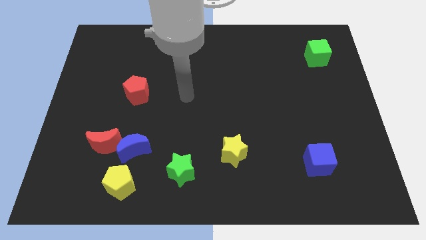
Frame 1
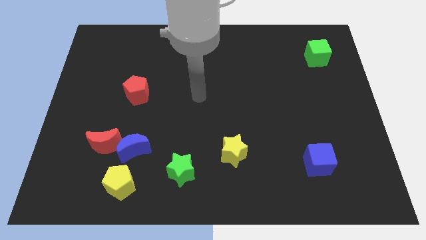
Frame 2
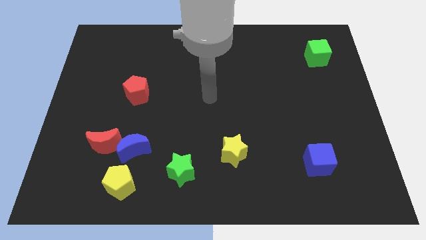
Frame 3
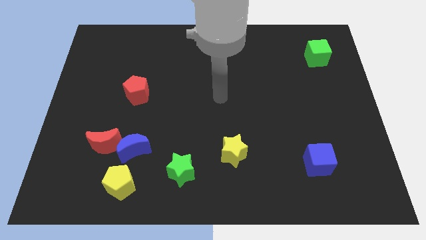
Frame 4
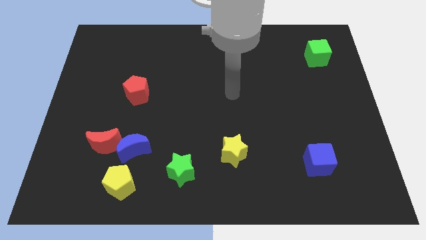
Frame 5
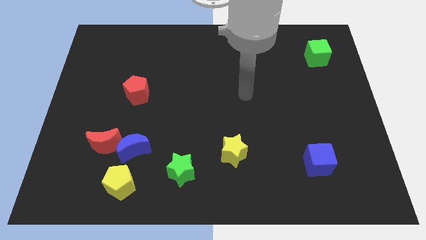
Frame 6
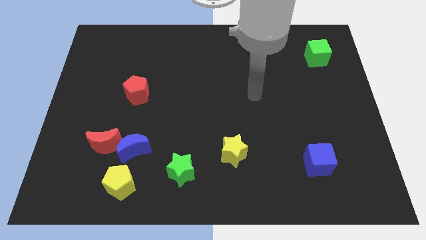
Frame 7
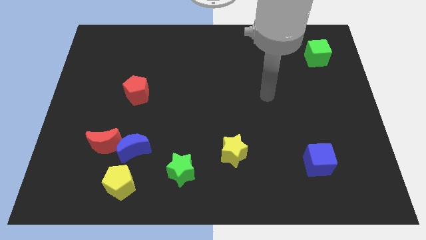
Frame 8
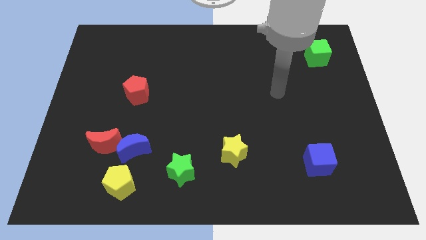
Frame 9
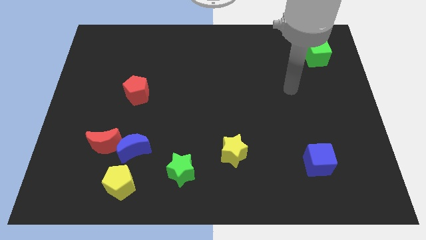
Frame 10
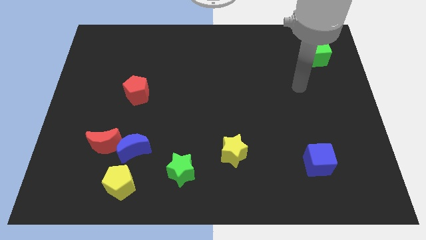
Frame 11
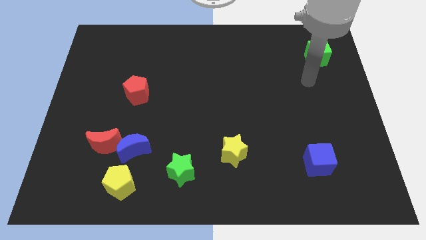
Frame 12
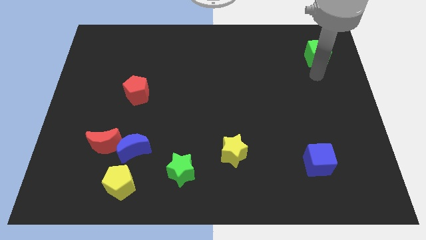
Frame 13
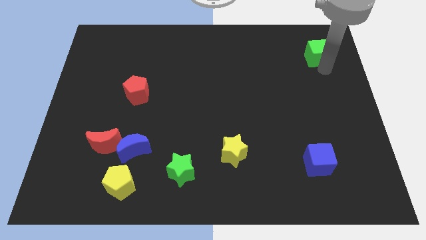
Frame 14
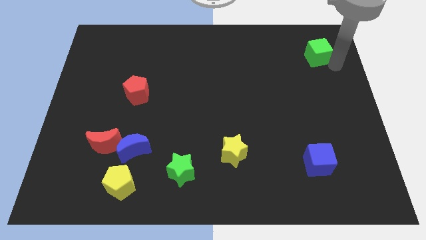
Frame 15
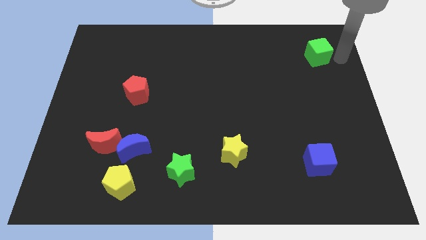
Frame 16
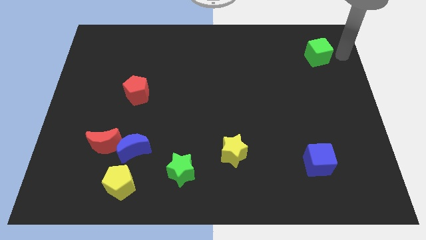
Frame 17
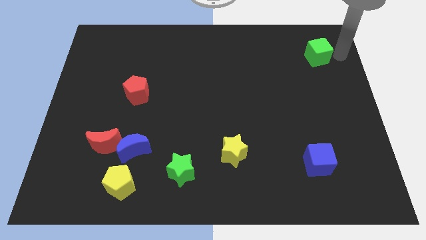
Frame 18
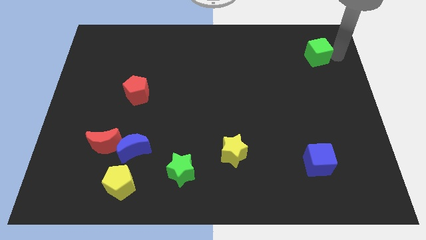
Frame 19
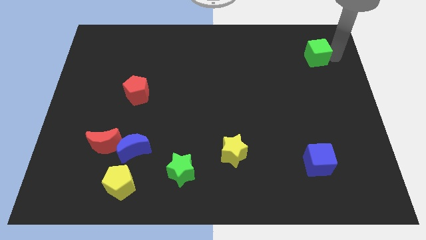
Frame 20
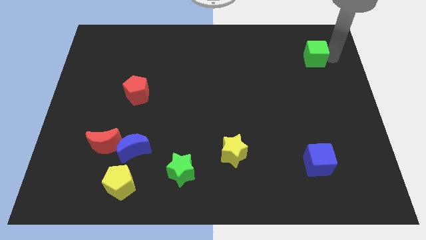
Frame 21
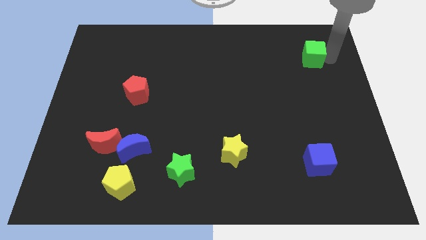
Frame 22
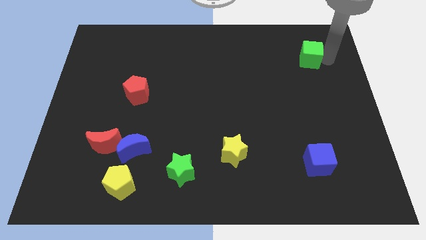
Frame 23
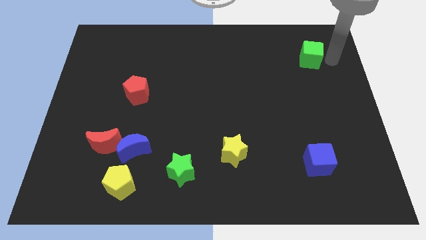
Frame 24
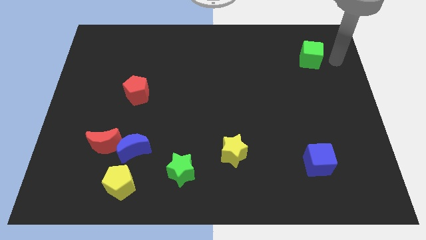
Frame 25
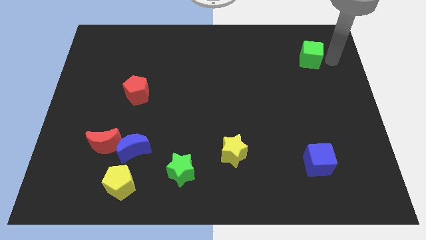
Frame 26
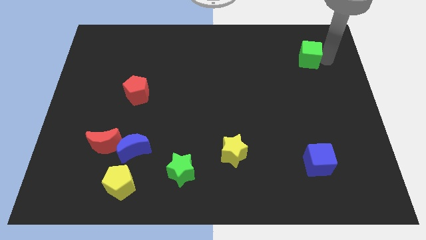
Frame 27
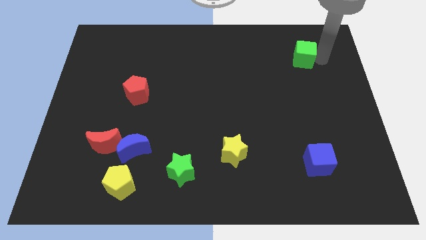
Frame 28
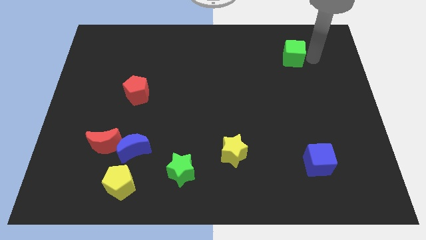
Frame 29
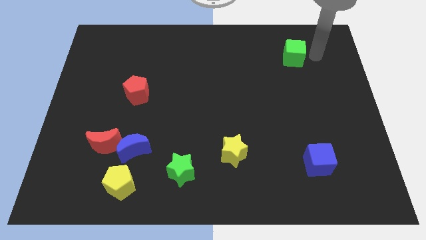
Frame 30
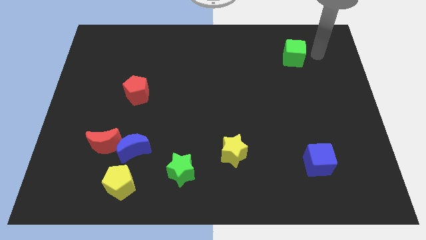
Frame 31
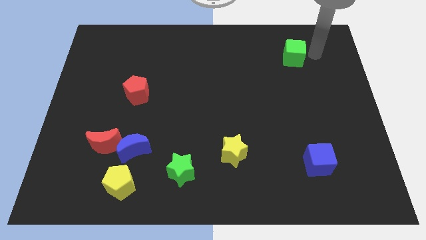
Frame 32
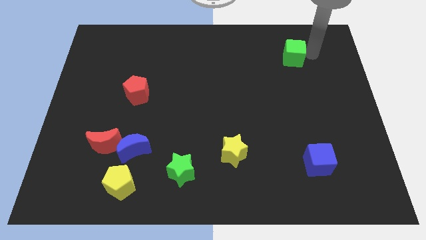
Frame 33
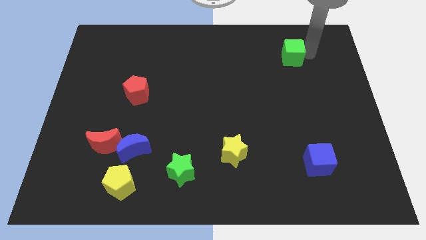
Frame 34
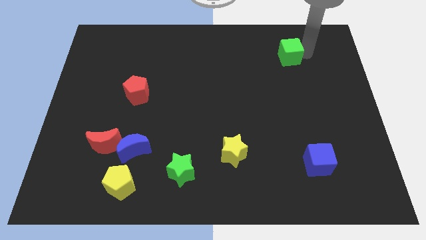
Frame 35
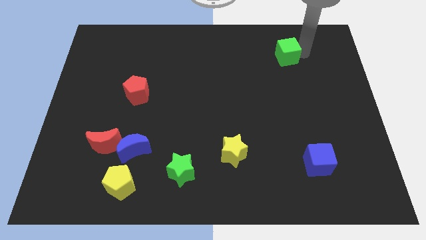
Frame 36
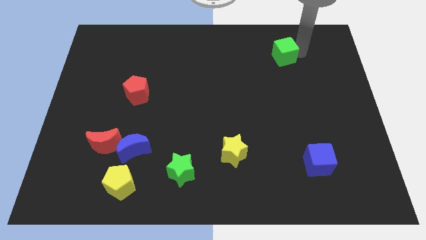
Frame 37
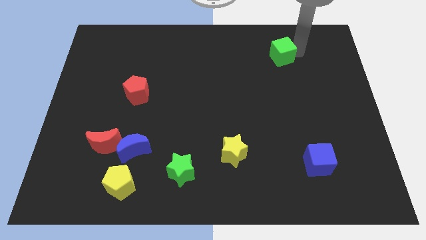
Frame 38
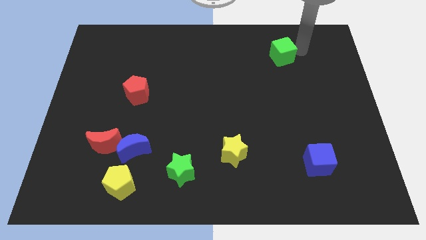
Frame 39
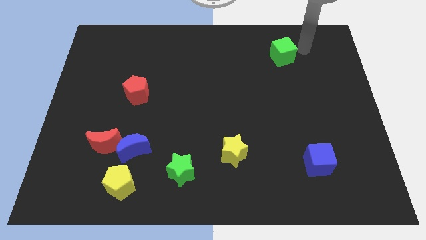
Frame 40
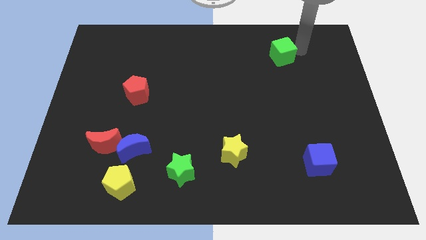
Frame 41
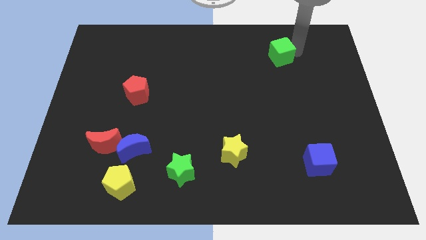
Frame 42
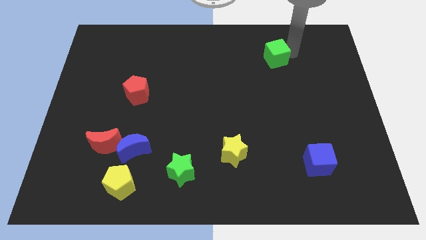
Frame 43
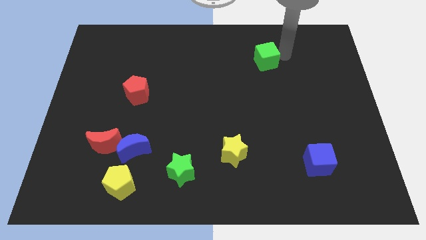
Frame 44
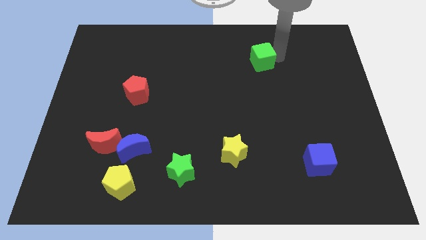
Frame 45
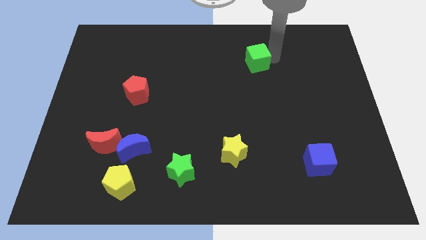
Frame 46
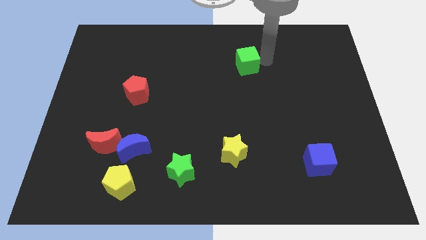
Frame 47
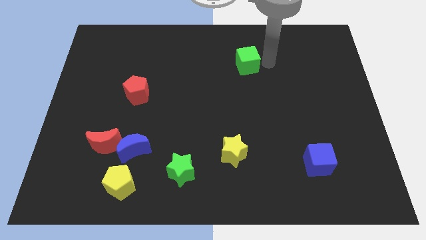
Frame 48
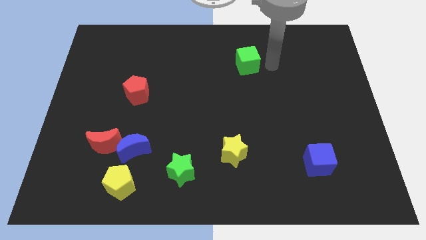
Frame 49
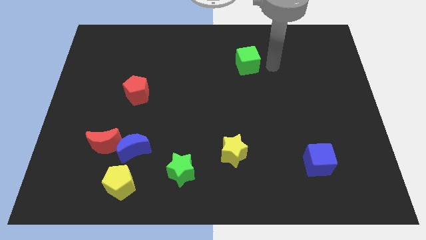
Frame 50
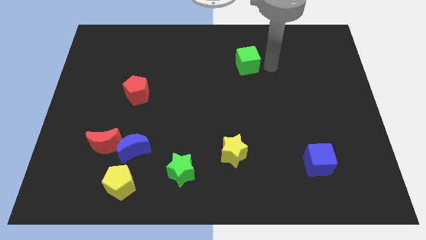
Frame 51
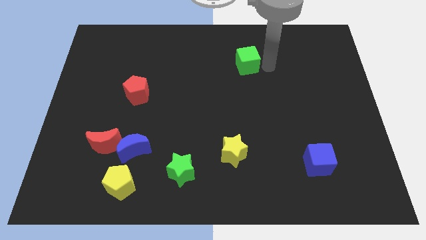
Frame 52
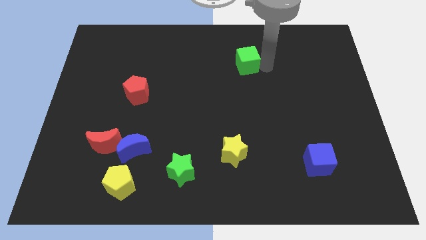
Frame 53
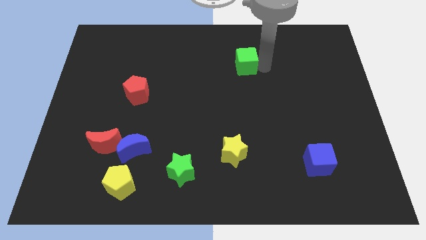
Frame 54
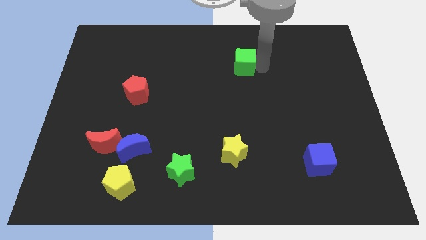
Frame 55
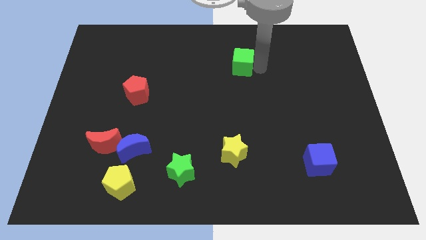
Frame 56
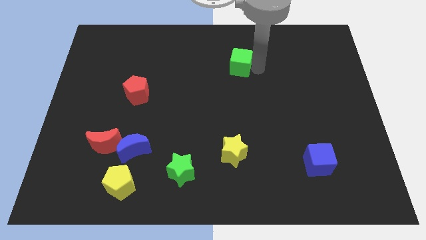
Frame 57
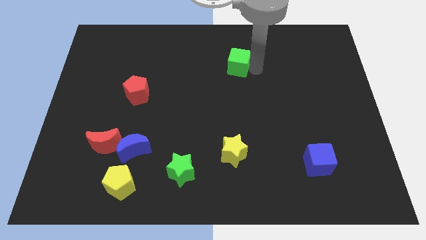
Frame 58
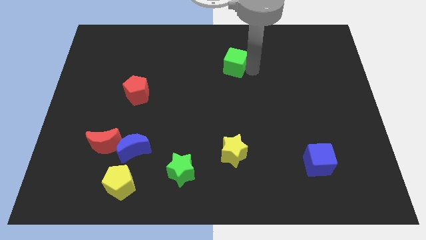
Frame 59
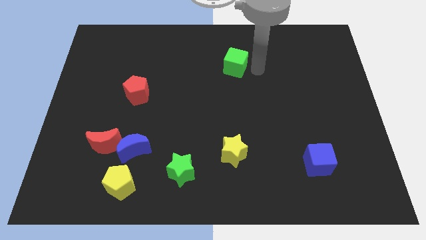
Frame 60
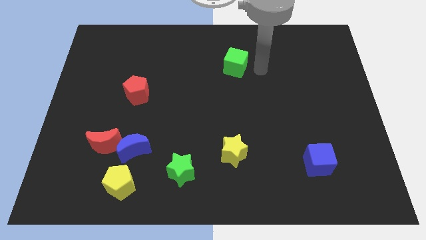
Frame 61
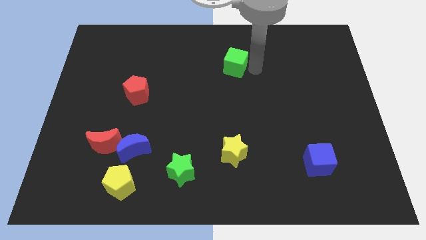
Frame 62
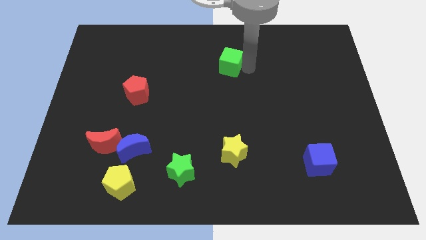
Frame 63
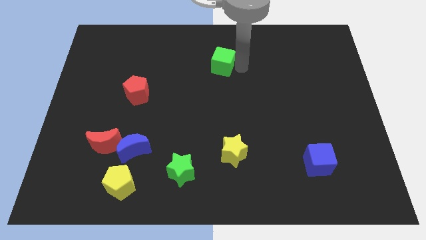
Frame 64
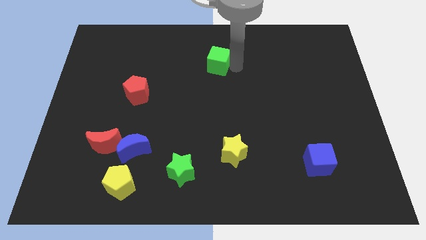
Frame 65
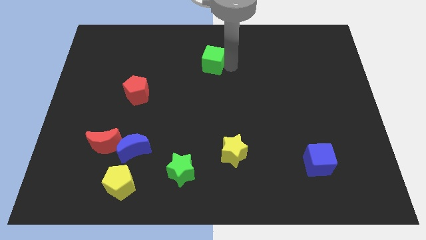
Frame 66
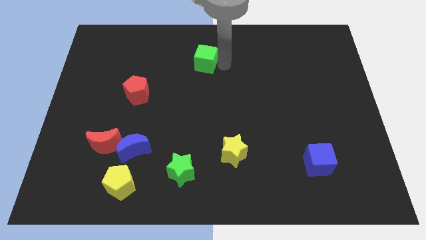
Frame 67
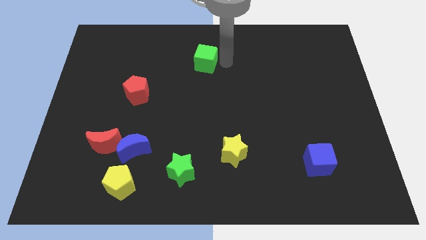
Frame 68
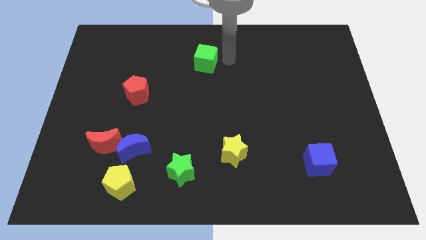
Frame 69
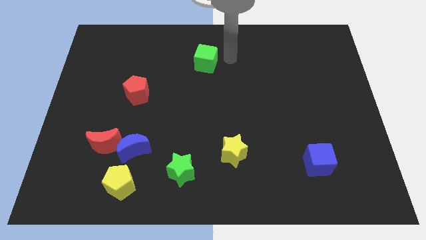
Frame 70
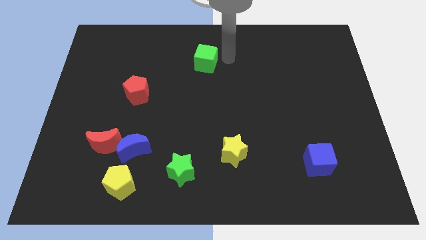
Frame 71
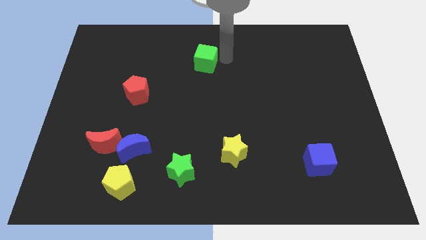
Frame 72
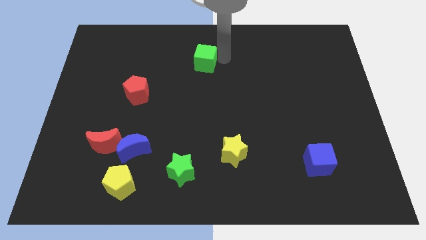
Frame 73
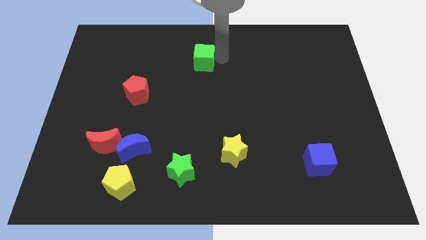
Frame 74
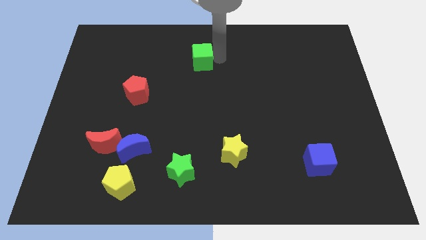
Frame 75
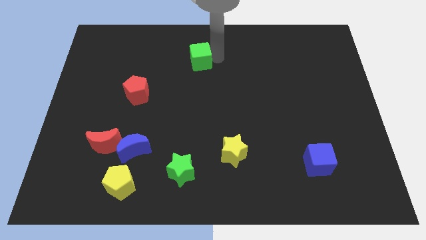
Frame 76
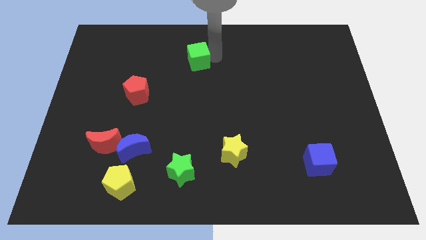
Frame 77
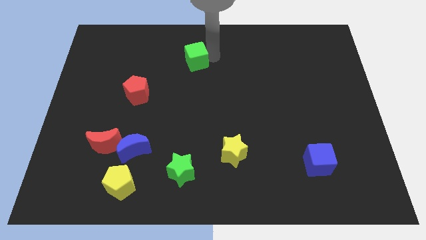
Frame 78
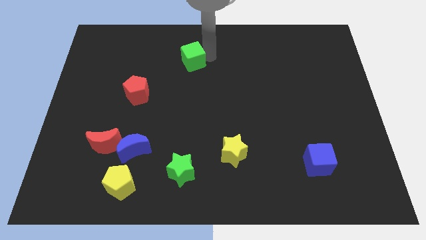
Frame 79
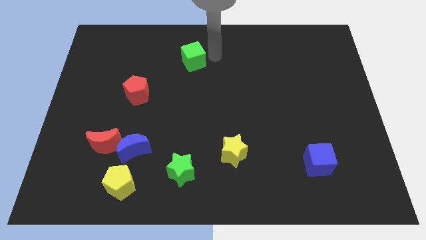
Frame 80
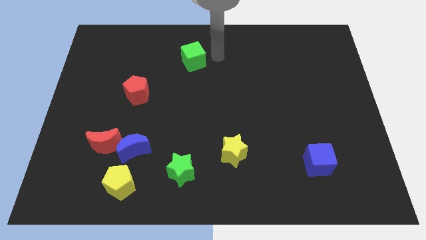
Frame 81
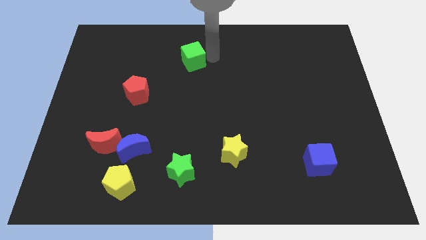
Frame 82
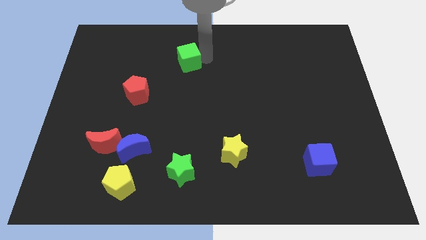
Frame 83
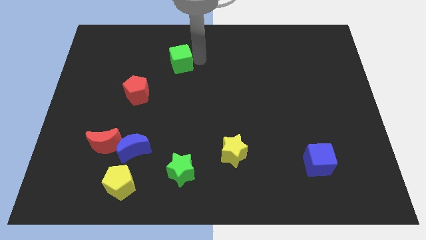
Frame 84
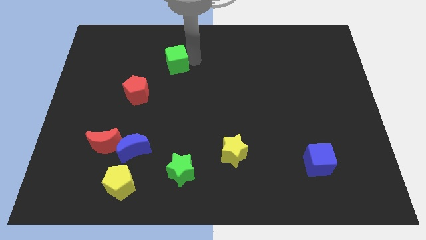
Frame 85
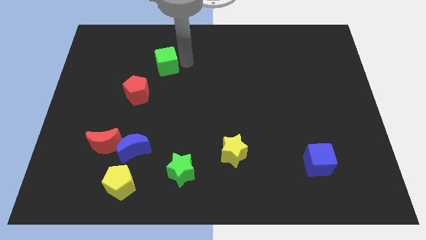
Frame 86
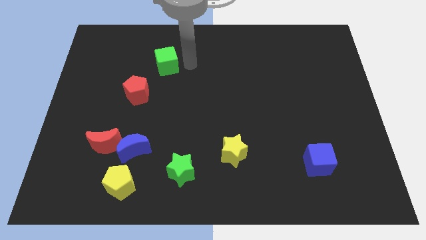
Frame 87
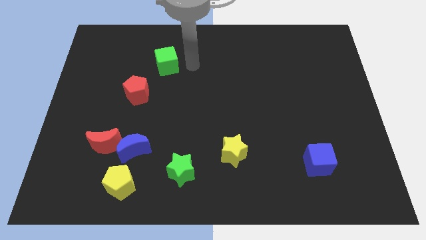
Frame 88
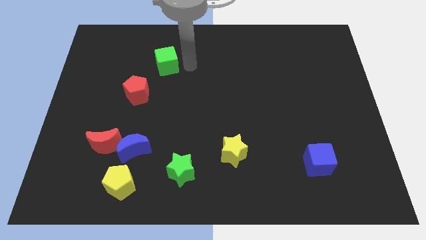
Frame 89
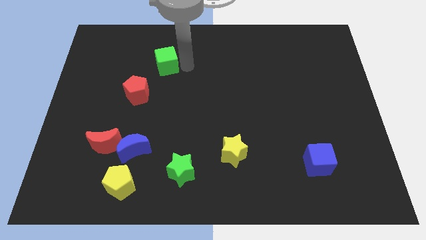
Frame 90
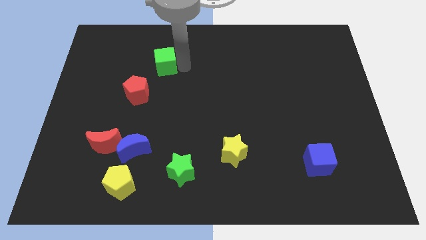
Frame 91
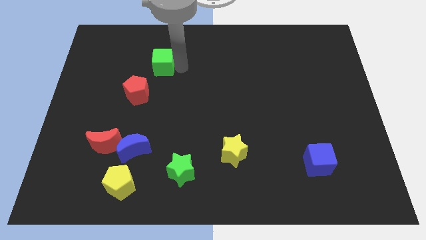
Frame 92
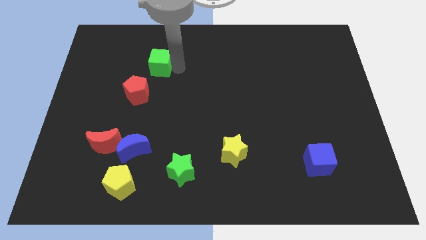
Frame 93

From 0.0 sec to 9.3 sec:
slide the green cube to the top of the red pentagon
